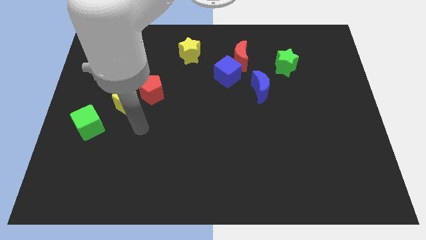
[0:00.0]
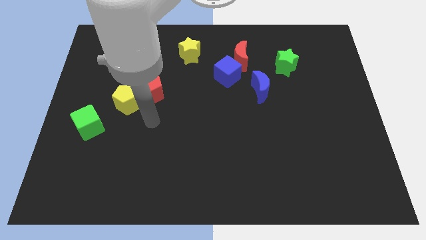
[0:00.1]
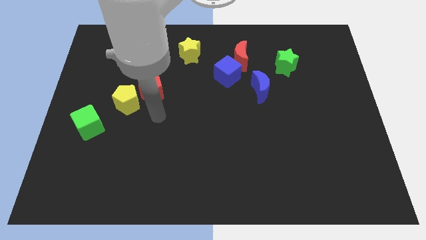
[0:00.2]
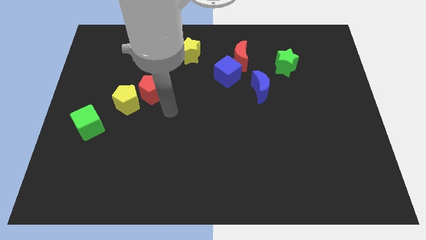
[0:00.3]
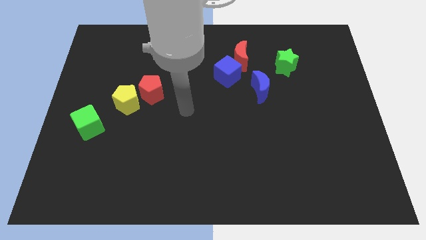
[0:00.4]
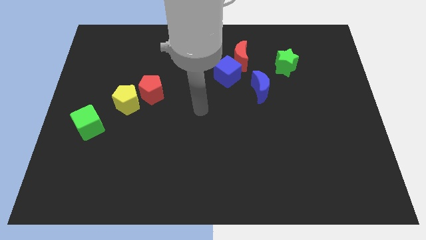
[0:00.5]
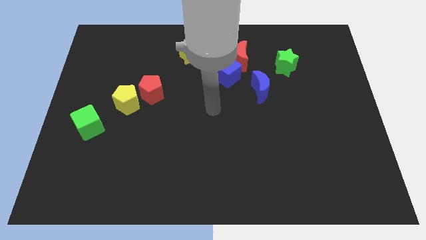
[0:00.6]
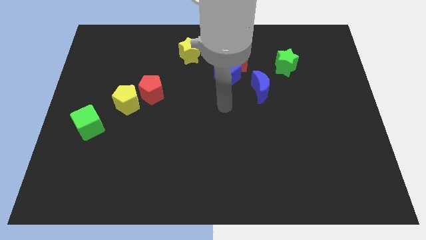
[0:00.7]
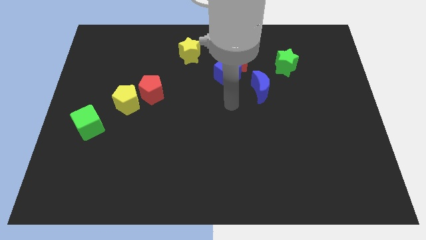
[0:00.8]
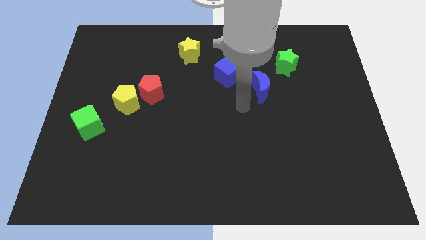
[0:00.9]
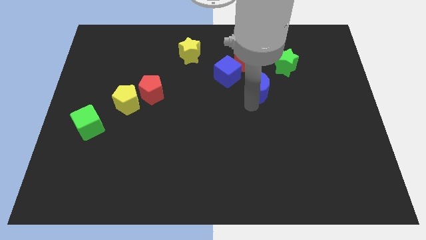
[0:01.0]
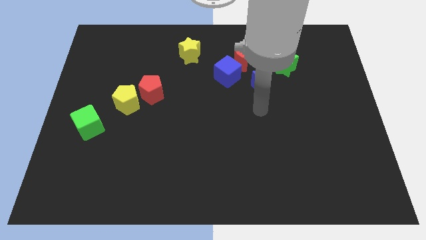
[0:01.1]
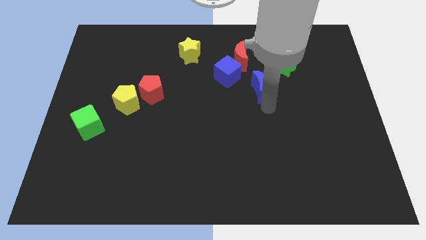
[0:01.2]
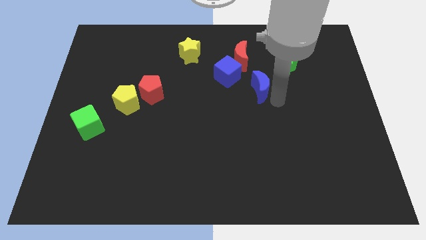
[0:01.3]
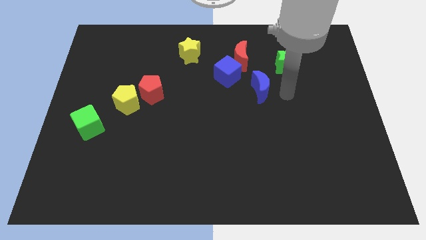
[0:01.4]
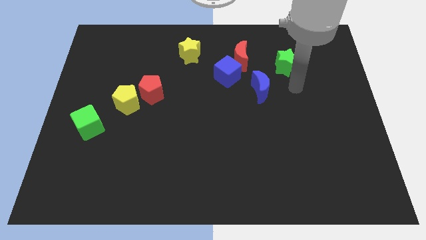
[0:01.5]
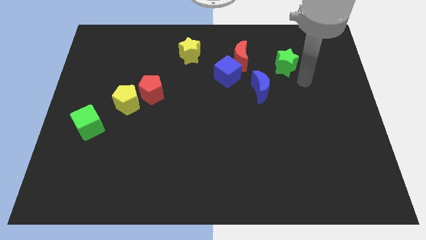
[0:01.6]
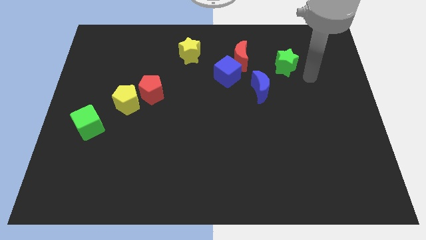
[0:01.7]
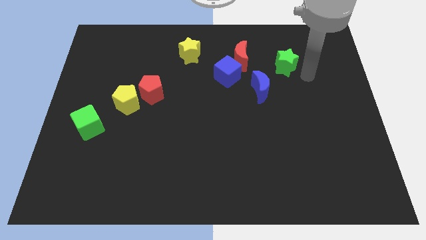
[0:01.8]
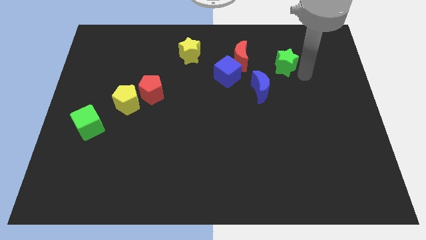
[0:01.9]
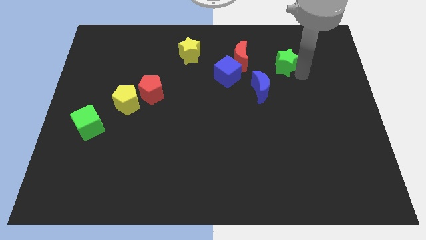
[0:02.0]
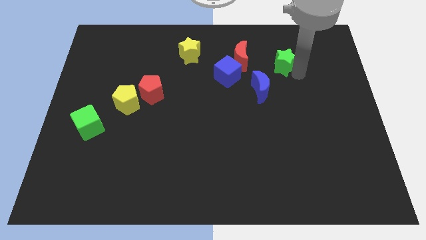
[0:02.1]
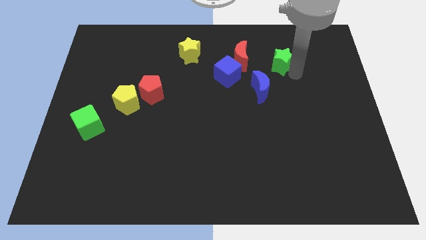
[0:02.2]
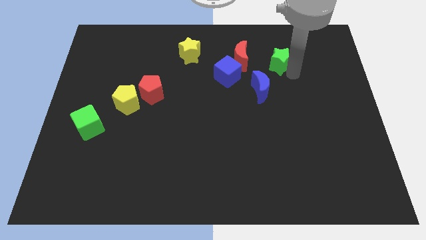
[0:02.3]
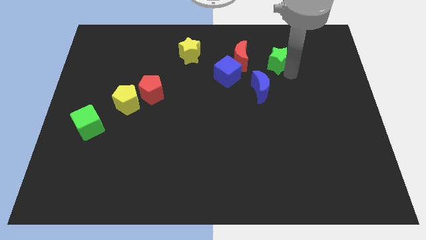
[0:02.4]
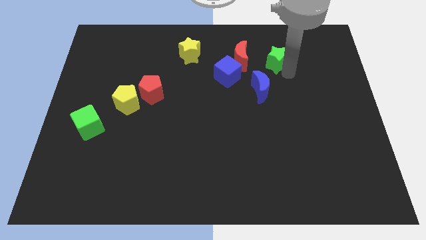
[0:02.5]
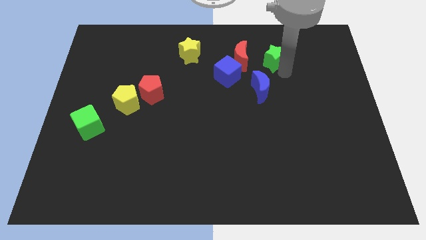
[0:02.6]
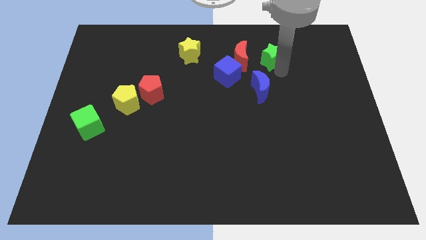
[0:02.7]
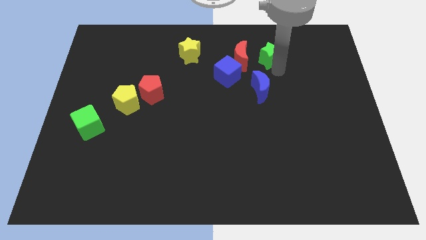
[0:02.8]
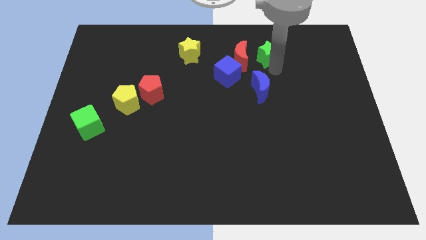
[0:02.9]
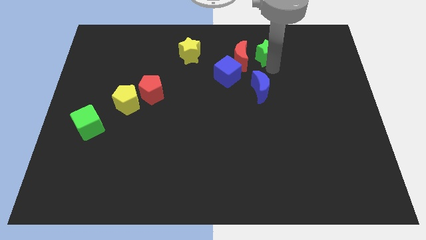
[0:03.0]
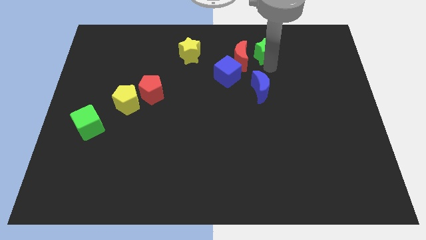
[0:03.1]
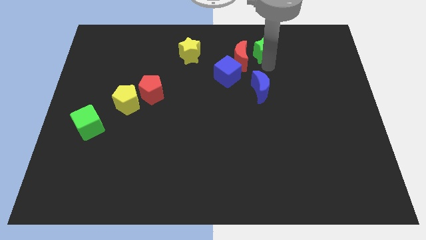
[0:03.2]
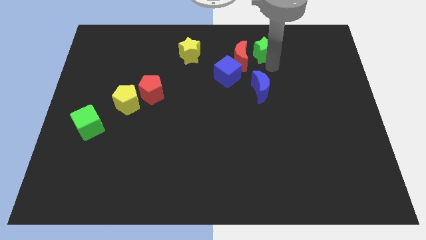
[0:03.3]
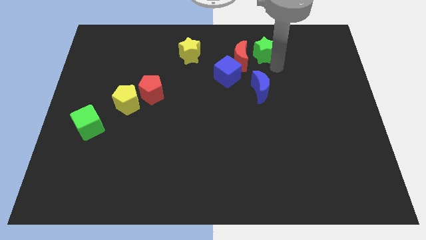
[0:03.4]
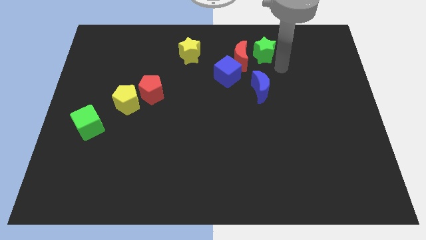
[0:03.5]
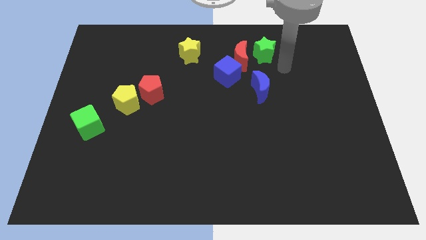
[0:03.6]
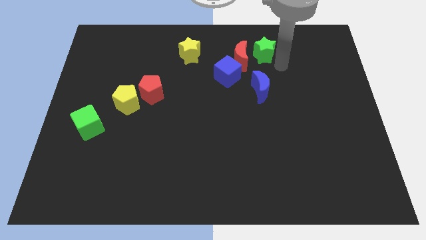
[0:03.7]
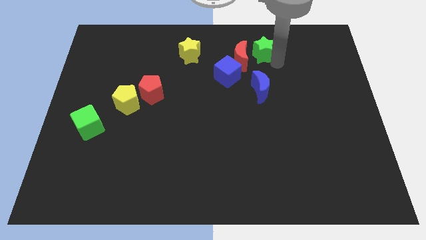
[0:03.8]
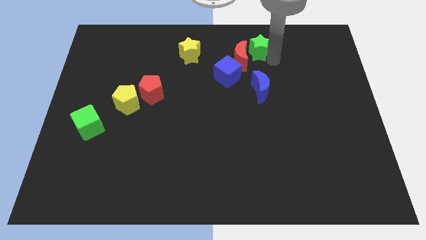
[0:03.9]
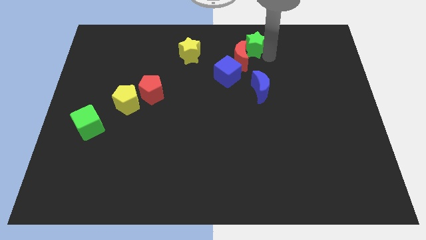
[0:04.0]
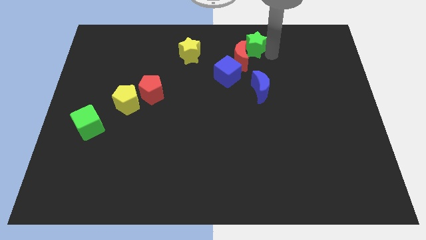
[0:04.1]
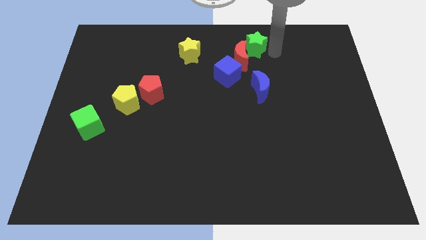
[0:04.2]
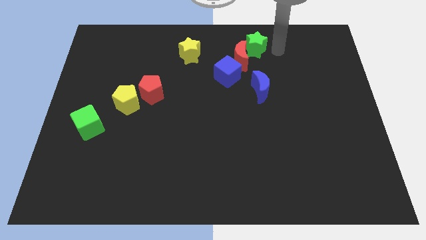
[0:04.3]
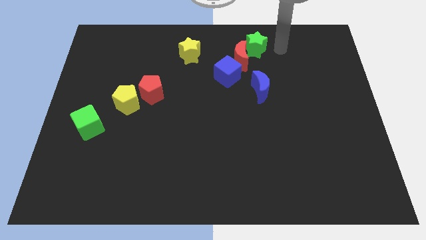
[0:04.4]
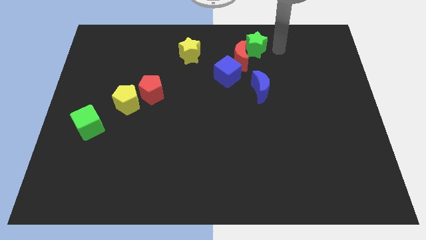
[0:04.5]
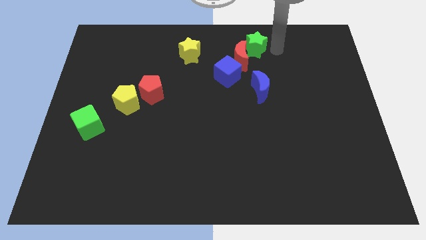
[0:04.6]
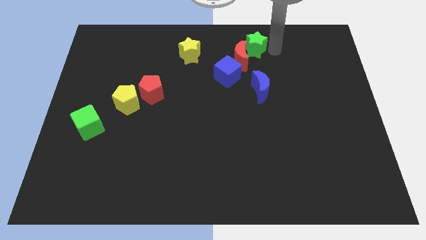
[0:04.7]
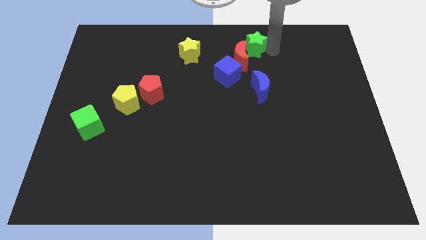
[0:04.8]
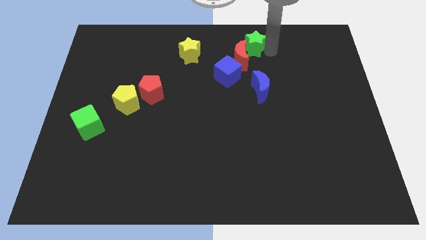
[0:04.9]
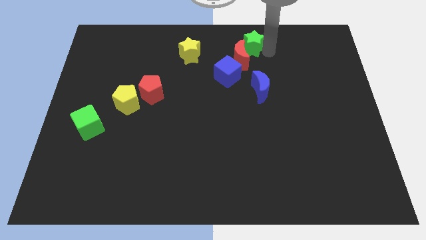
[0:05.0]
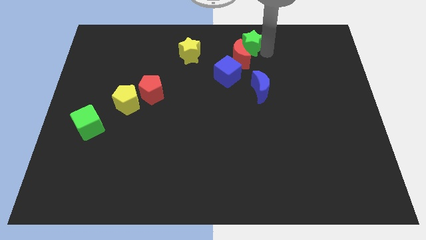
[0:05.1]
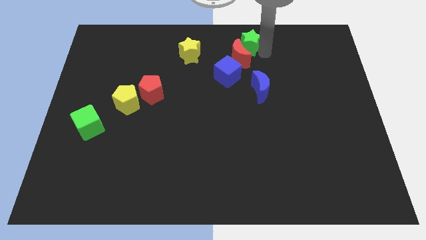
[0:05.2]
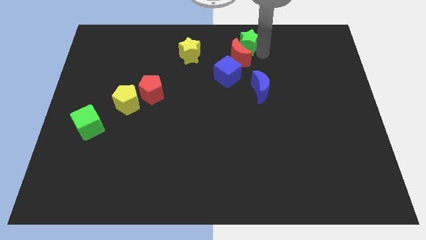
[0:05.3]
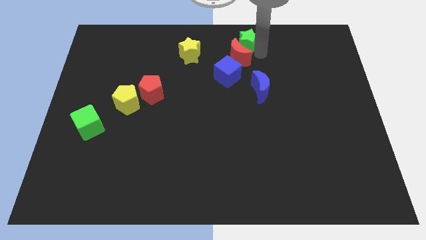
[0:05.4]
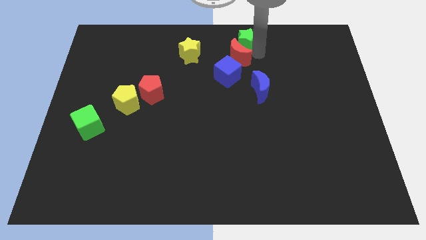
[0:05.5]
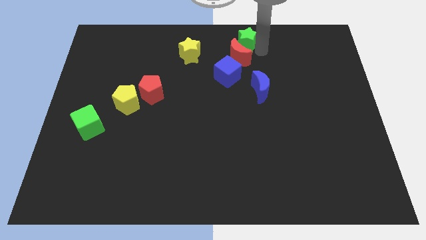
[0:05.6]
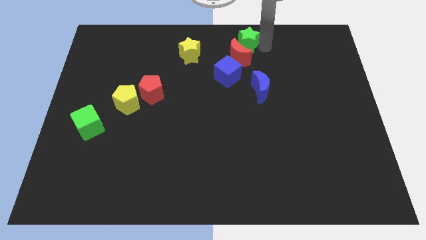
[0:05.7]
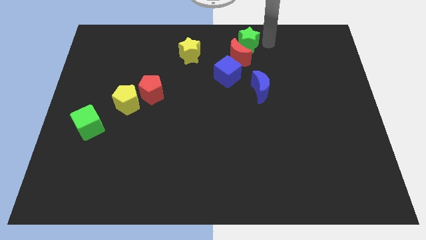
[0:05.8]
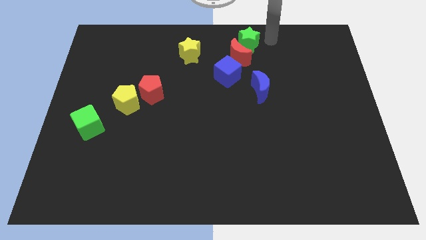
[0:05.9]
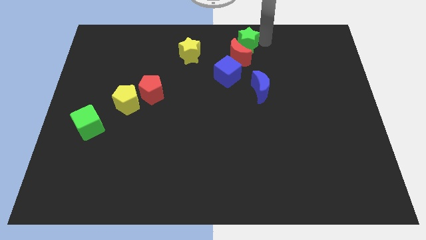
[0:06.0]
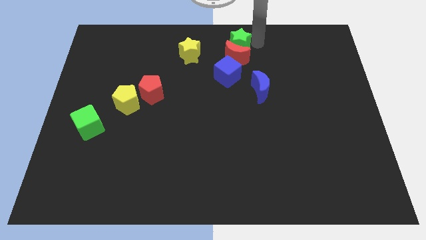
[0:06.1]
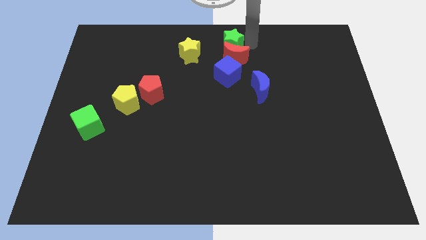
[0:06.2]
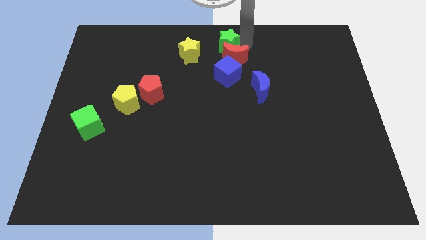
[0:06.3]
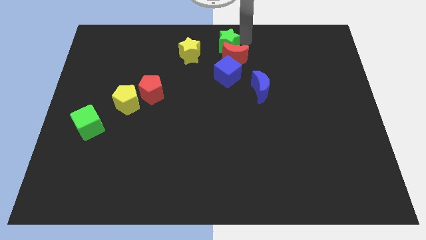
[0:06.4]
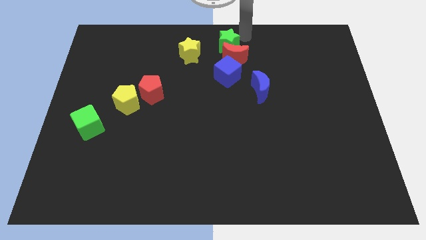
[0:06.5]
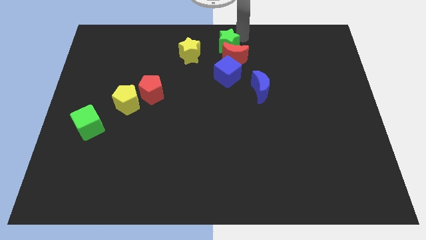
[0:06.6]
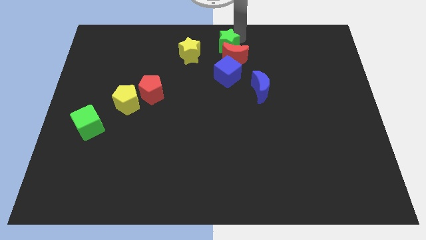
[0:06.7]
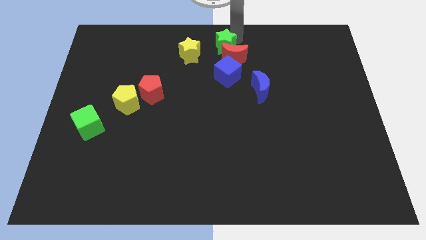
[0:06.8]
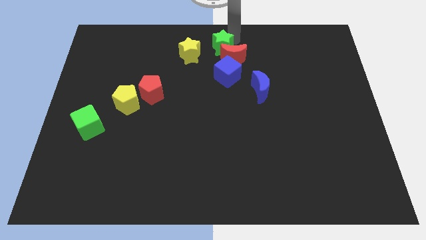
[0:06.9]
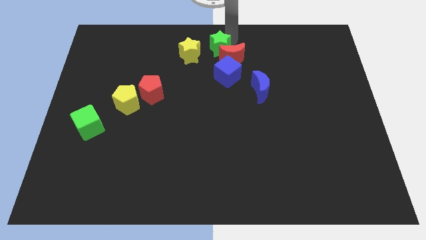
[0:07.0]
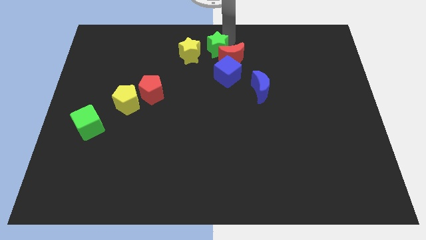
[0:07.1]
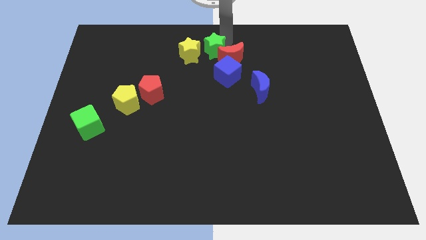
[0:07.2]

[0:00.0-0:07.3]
push the green star to the top left of the blue cube

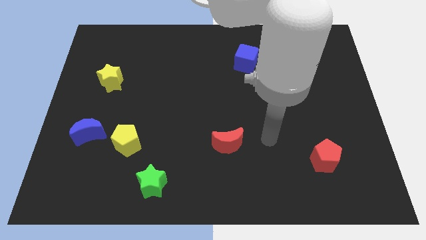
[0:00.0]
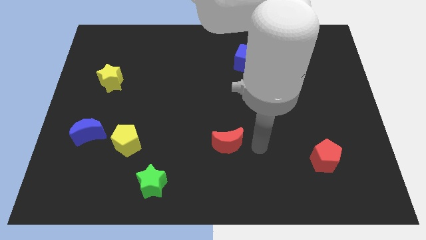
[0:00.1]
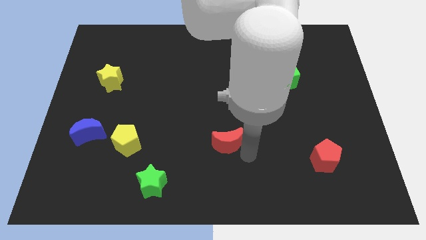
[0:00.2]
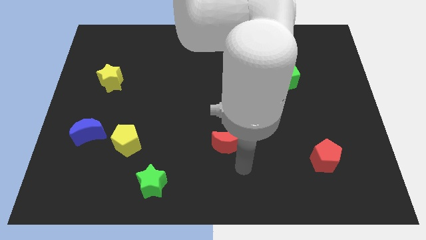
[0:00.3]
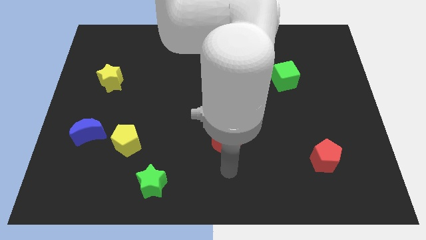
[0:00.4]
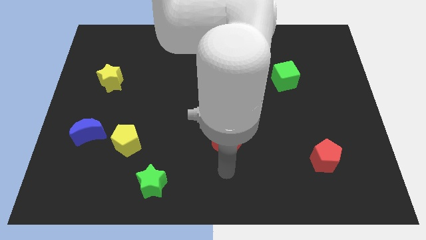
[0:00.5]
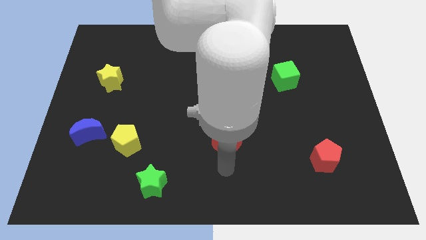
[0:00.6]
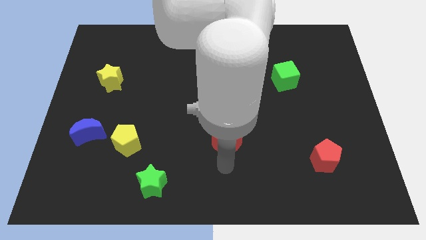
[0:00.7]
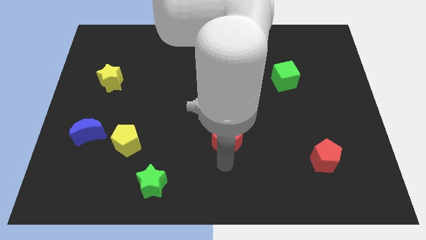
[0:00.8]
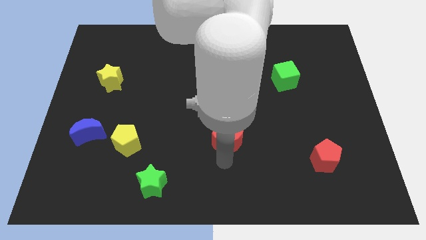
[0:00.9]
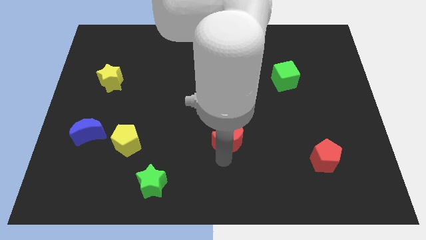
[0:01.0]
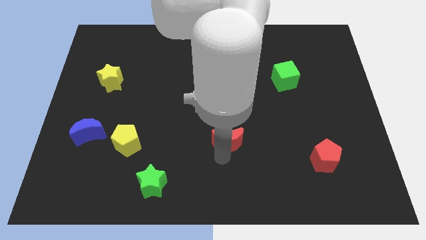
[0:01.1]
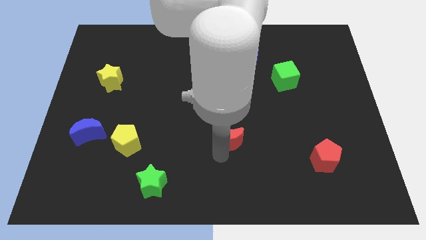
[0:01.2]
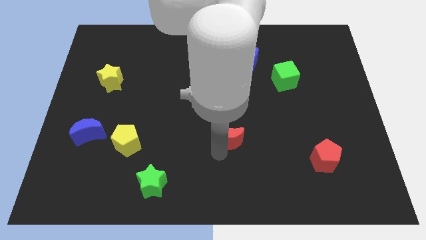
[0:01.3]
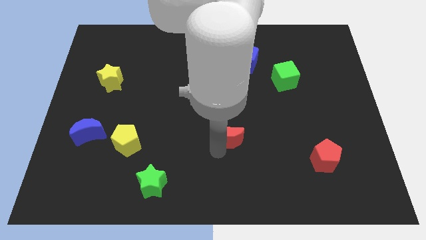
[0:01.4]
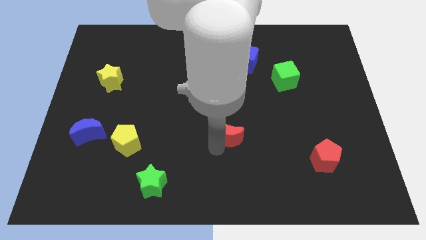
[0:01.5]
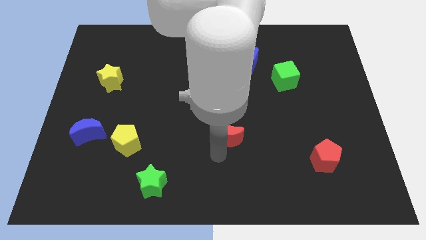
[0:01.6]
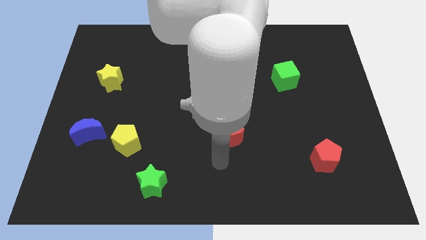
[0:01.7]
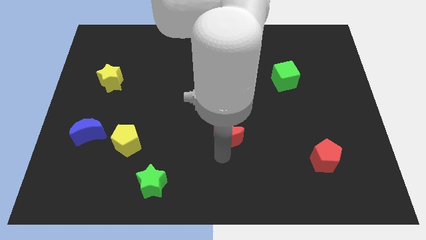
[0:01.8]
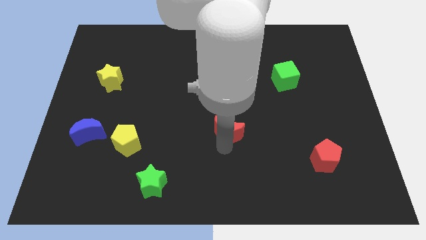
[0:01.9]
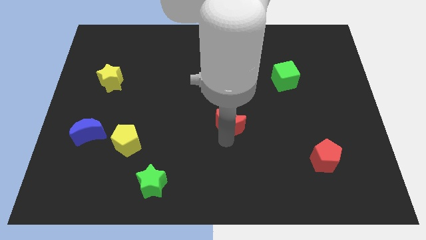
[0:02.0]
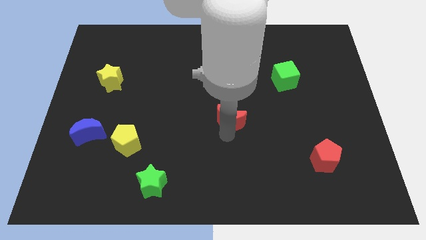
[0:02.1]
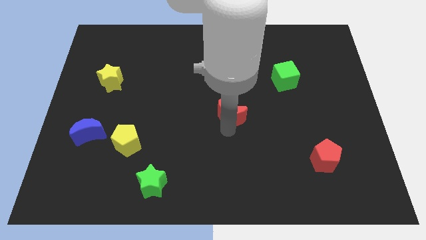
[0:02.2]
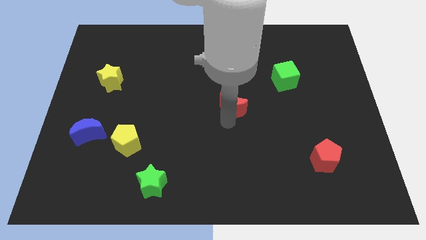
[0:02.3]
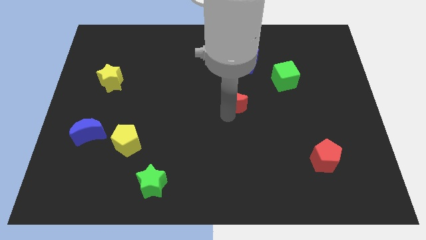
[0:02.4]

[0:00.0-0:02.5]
slide the red moon to the bottom side of the blue cube
